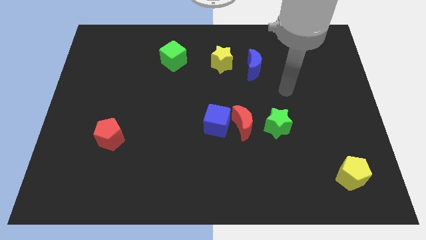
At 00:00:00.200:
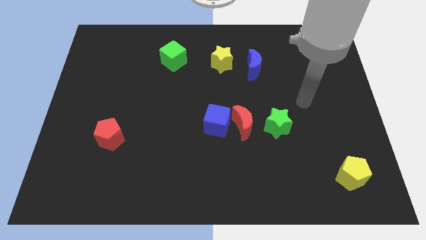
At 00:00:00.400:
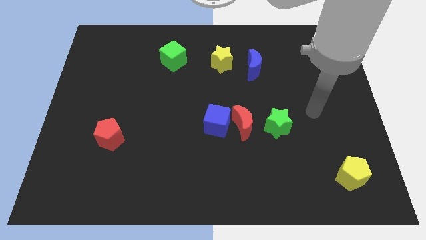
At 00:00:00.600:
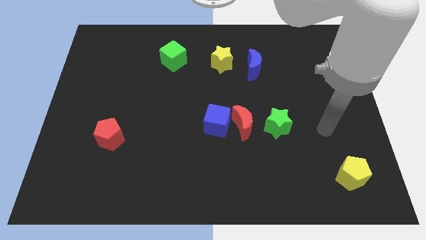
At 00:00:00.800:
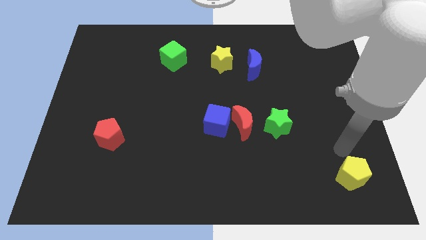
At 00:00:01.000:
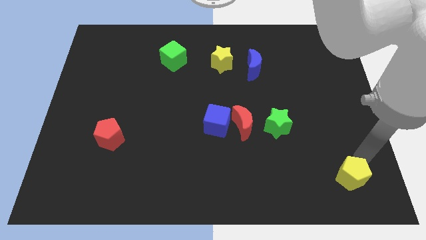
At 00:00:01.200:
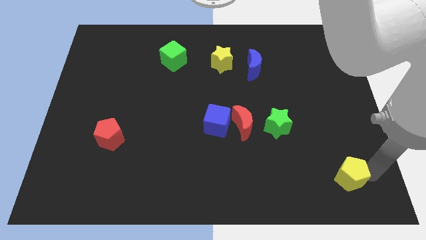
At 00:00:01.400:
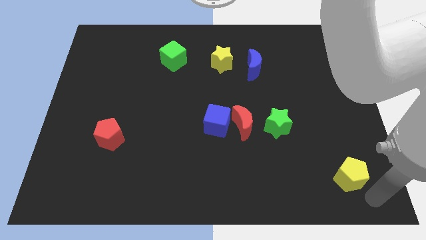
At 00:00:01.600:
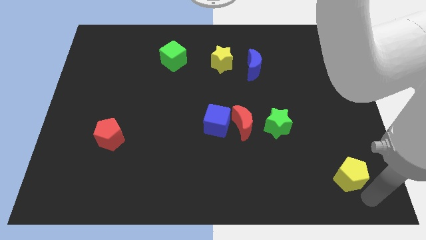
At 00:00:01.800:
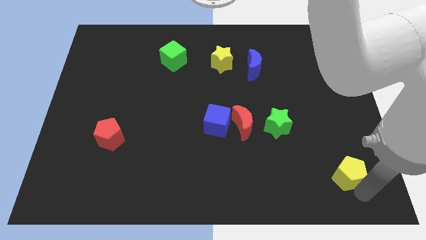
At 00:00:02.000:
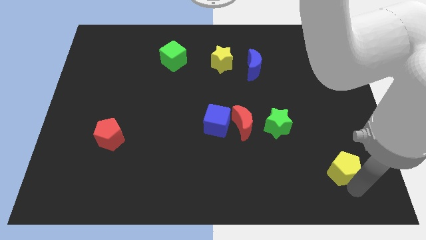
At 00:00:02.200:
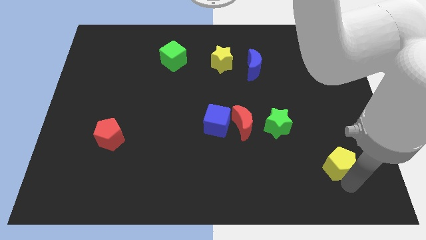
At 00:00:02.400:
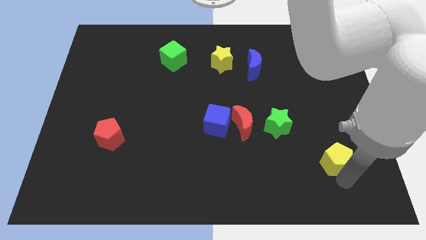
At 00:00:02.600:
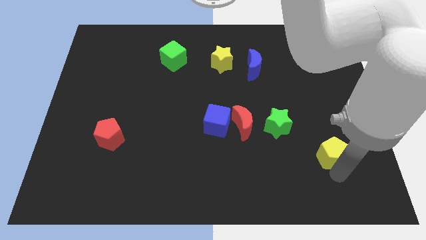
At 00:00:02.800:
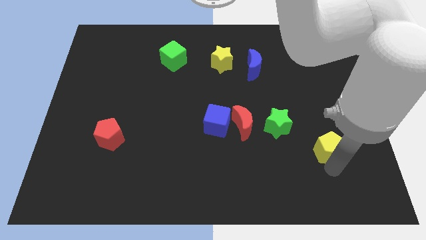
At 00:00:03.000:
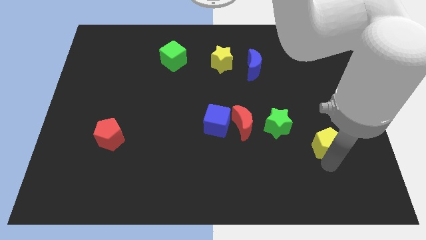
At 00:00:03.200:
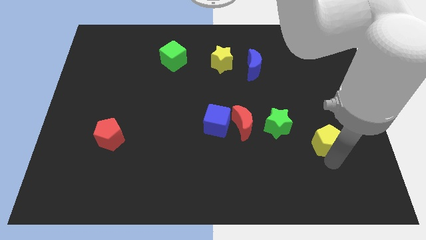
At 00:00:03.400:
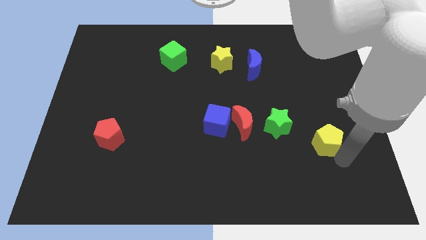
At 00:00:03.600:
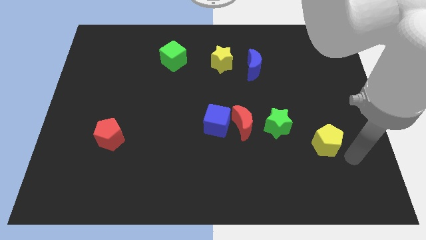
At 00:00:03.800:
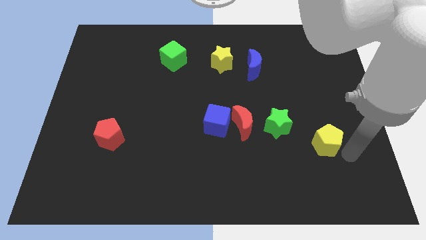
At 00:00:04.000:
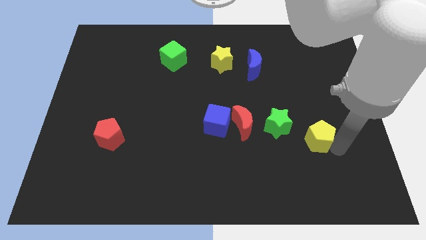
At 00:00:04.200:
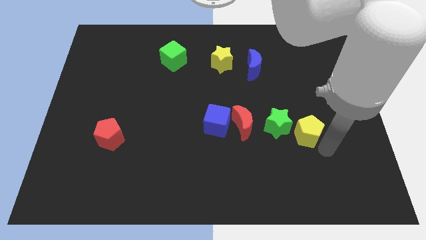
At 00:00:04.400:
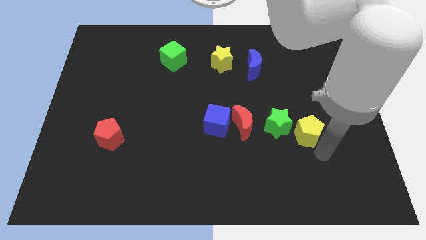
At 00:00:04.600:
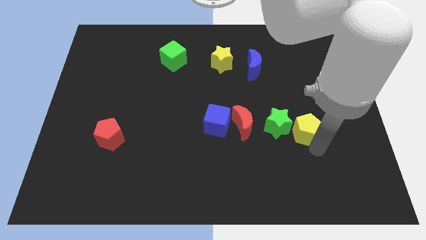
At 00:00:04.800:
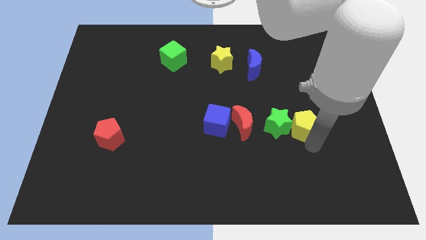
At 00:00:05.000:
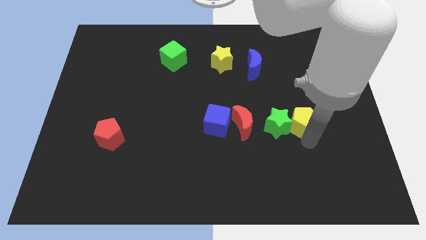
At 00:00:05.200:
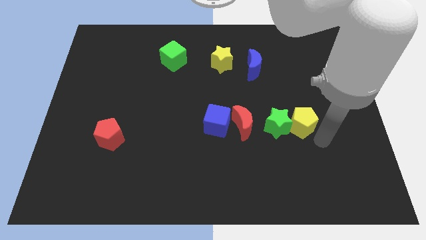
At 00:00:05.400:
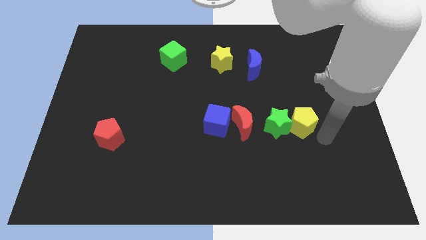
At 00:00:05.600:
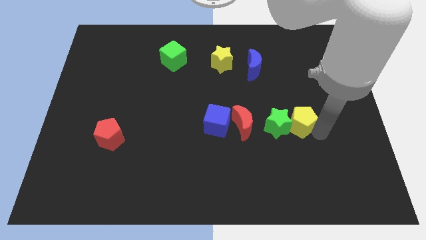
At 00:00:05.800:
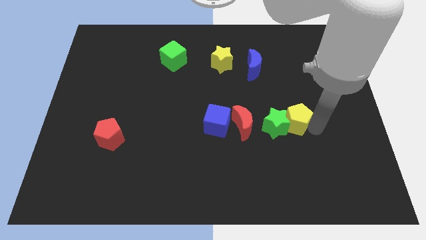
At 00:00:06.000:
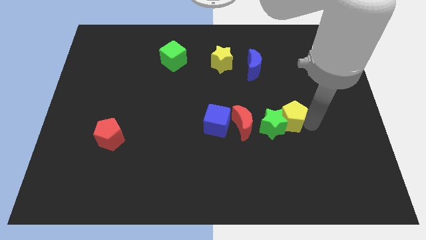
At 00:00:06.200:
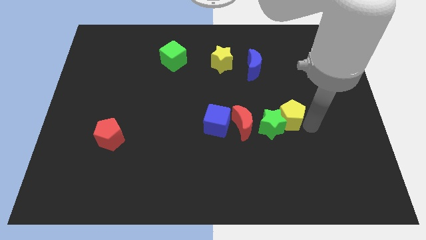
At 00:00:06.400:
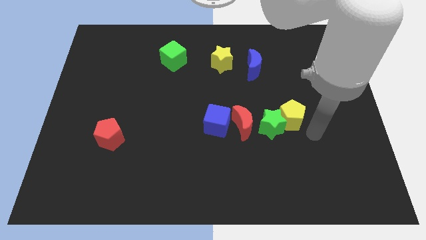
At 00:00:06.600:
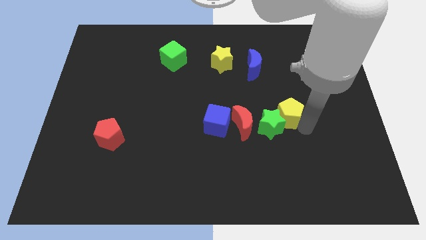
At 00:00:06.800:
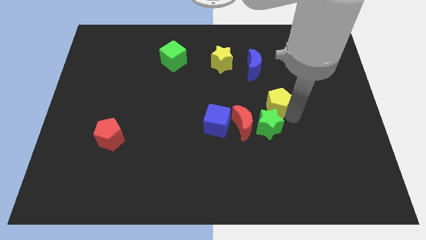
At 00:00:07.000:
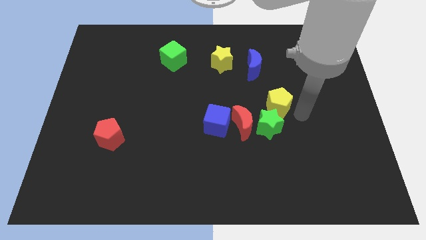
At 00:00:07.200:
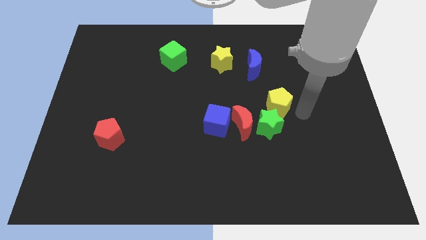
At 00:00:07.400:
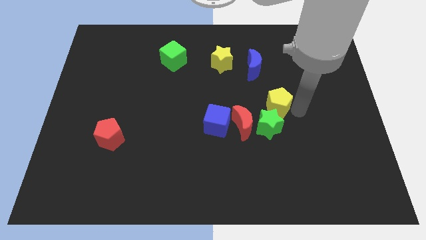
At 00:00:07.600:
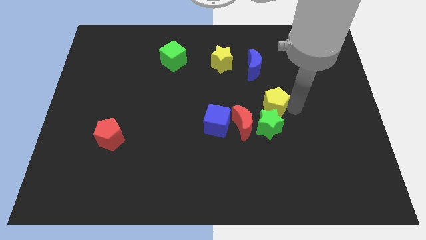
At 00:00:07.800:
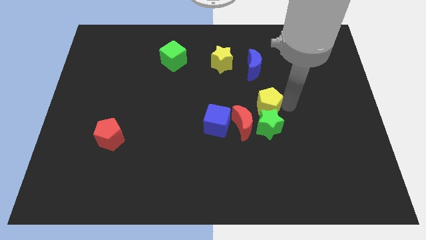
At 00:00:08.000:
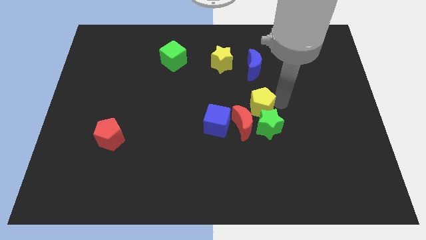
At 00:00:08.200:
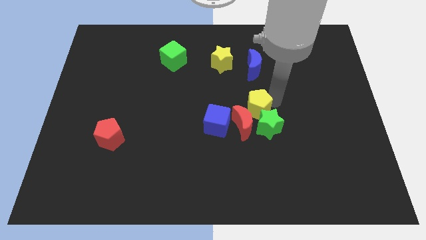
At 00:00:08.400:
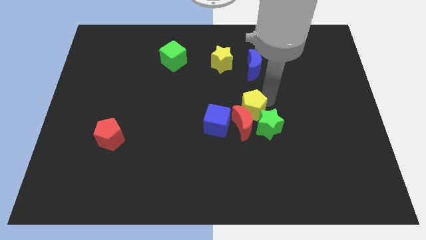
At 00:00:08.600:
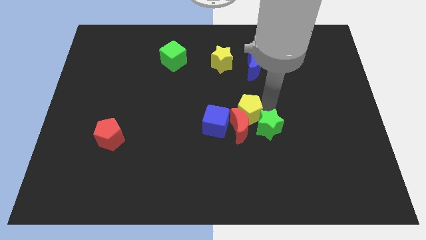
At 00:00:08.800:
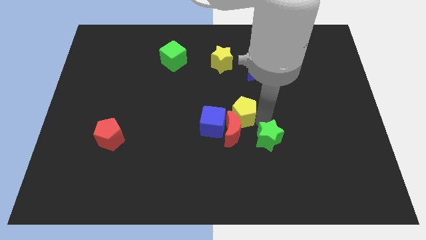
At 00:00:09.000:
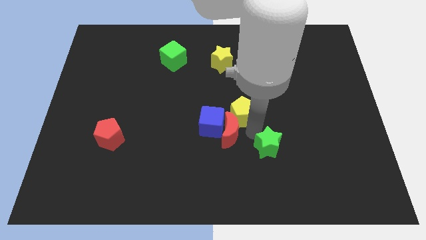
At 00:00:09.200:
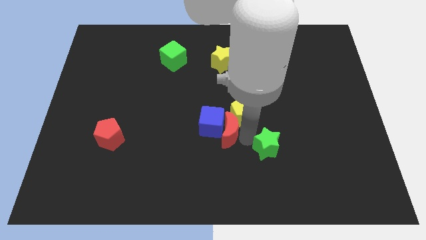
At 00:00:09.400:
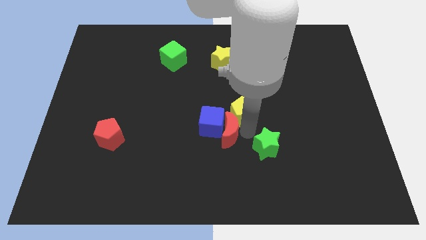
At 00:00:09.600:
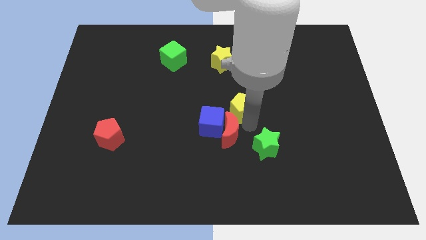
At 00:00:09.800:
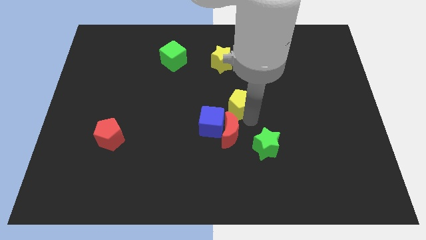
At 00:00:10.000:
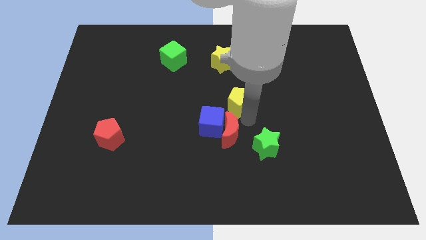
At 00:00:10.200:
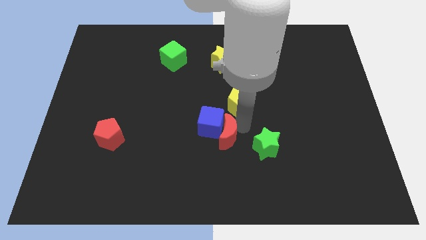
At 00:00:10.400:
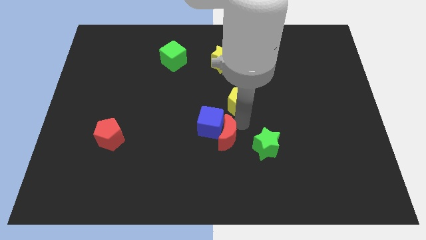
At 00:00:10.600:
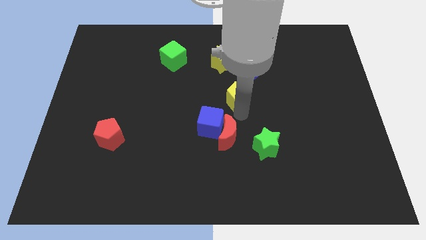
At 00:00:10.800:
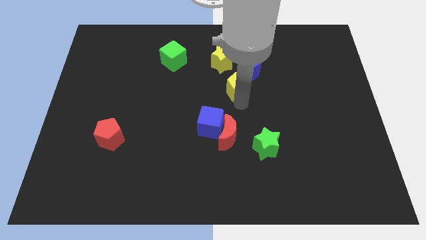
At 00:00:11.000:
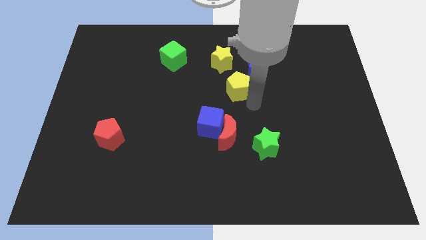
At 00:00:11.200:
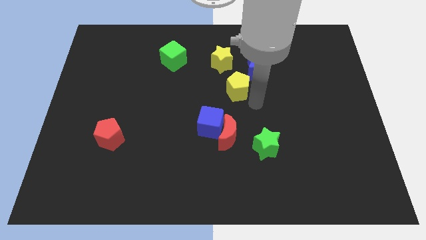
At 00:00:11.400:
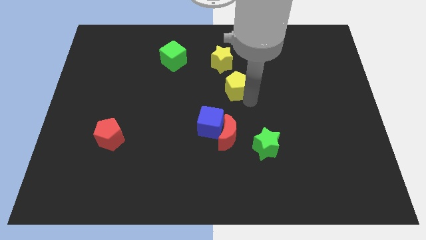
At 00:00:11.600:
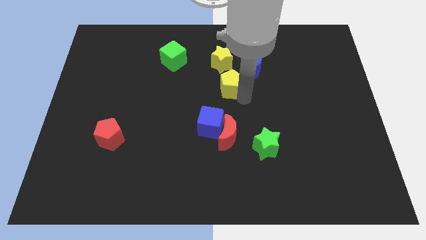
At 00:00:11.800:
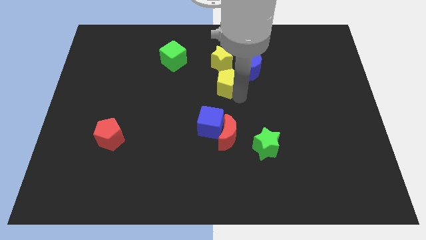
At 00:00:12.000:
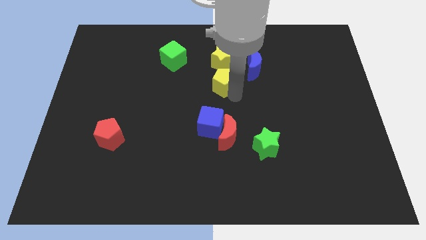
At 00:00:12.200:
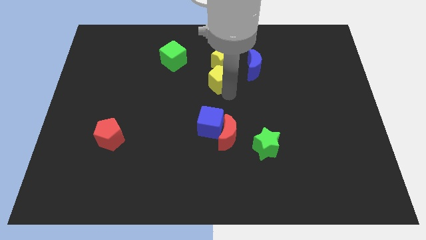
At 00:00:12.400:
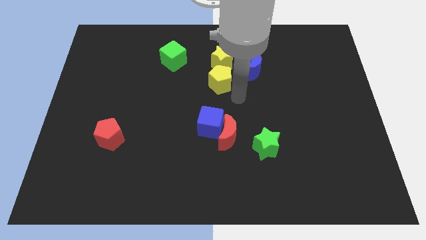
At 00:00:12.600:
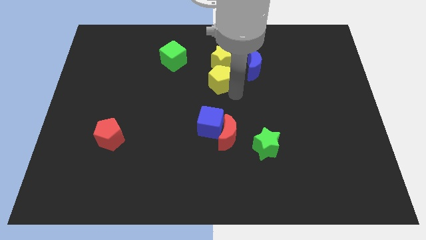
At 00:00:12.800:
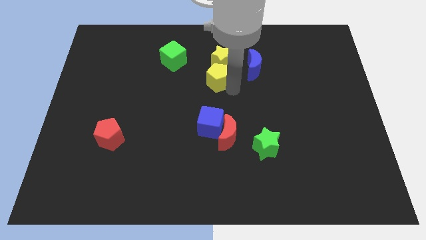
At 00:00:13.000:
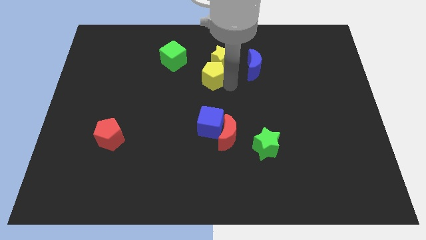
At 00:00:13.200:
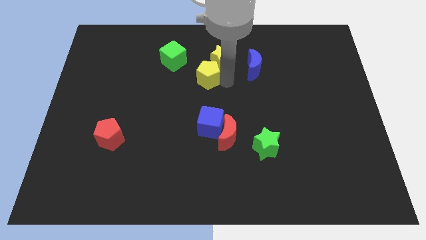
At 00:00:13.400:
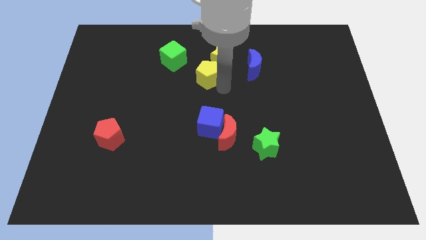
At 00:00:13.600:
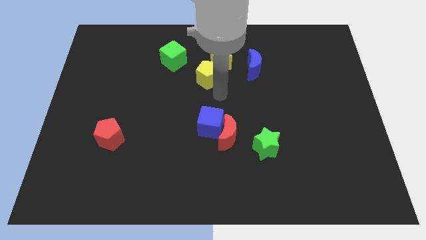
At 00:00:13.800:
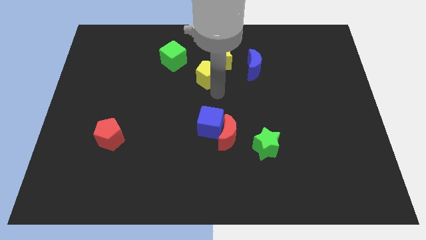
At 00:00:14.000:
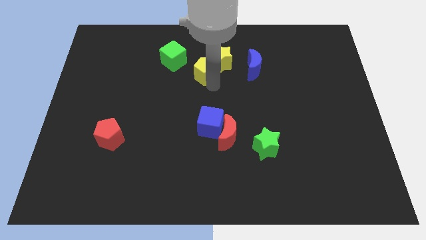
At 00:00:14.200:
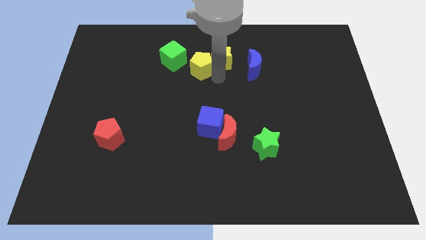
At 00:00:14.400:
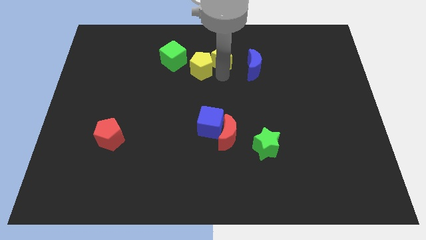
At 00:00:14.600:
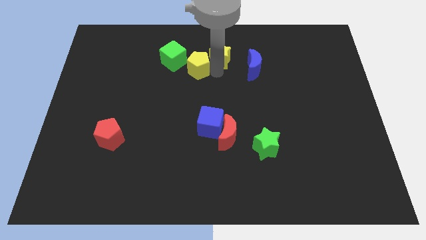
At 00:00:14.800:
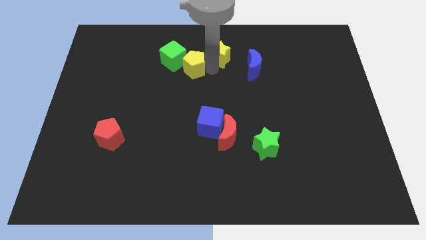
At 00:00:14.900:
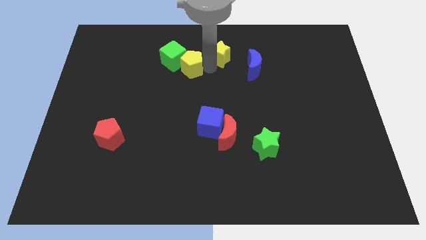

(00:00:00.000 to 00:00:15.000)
slide the yellow pentagon next to the green cube
